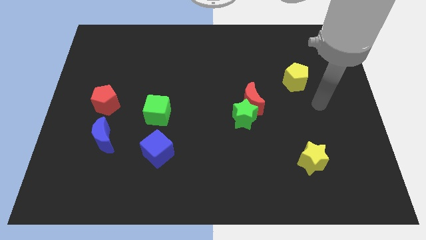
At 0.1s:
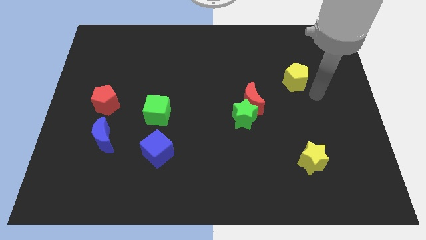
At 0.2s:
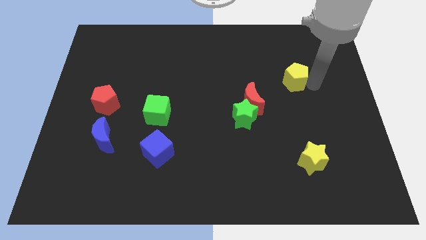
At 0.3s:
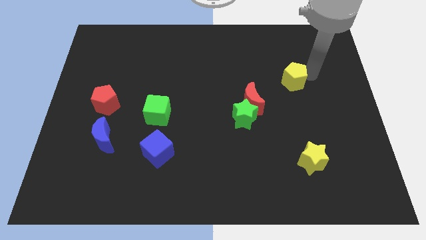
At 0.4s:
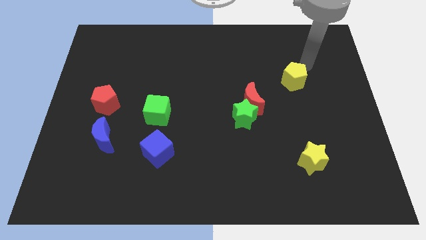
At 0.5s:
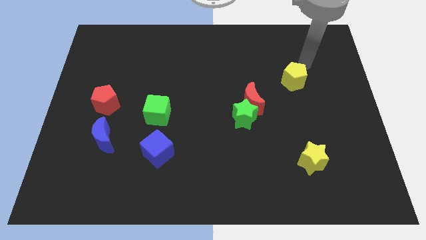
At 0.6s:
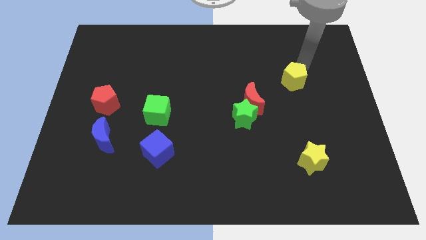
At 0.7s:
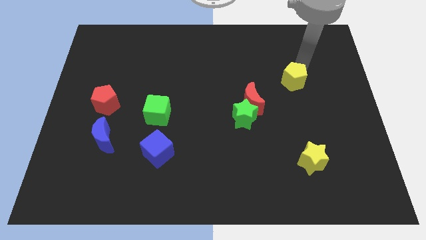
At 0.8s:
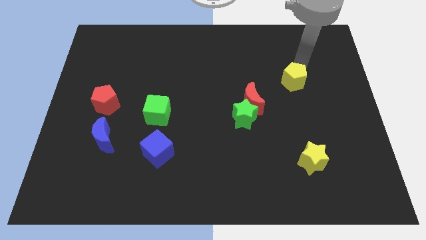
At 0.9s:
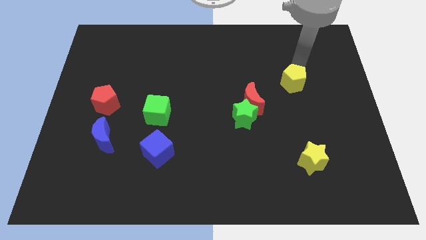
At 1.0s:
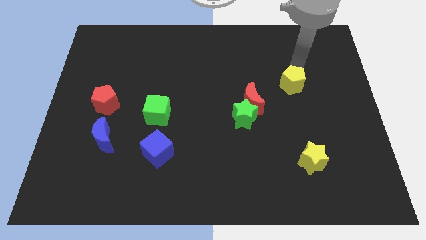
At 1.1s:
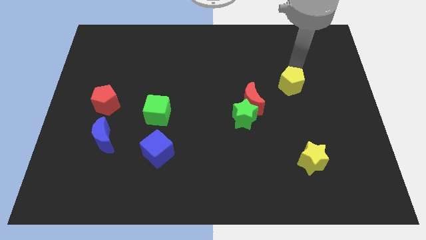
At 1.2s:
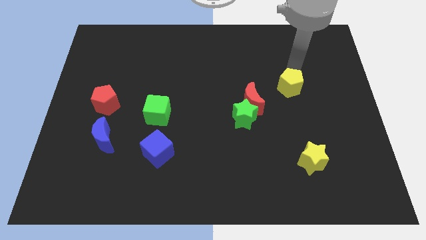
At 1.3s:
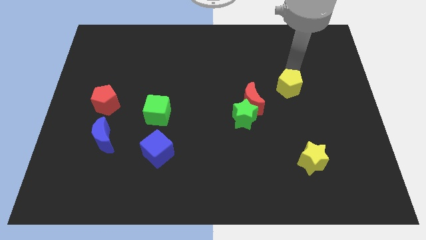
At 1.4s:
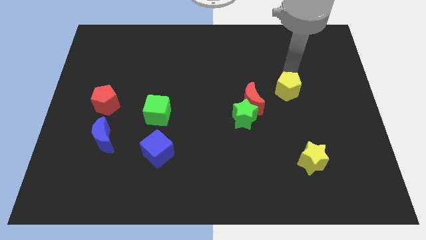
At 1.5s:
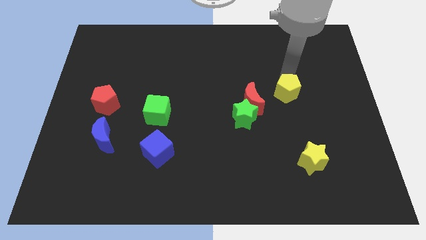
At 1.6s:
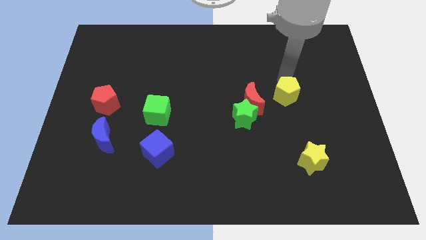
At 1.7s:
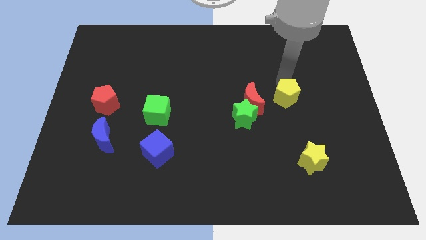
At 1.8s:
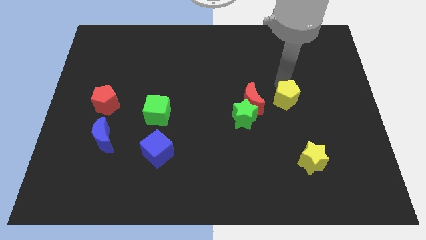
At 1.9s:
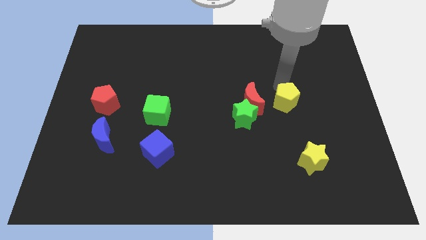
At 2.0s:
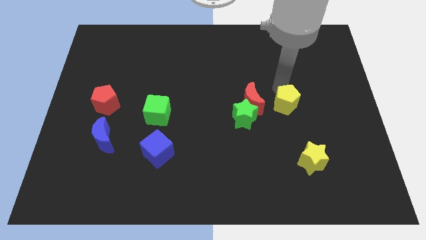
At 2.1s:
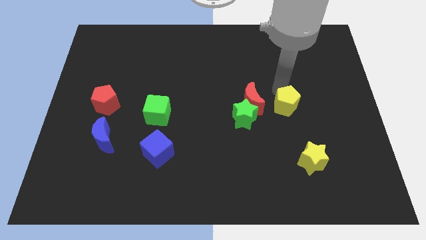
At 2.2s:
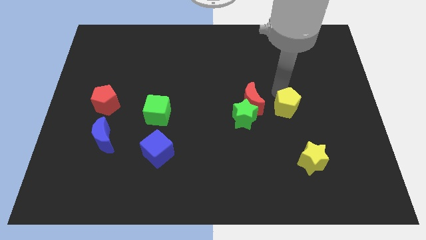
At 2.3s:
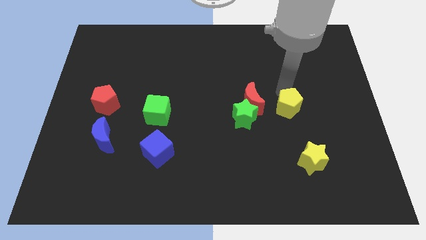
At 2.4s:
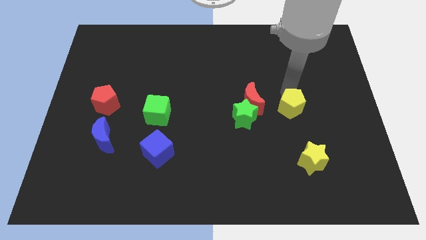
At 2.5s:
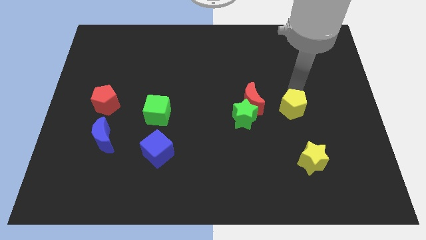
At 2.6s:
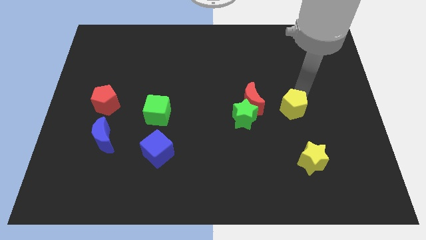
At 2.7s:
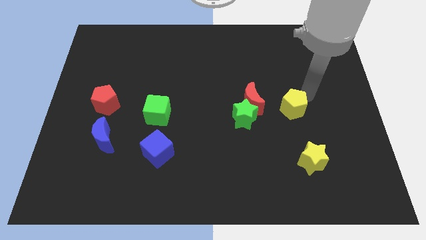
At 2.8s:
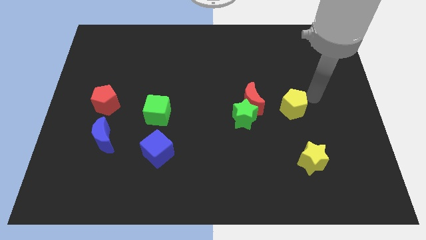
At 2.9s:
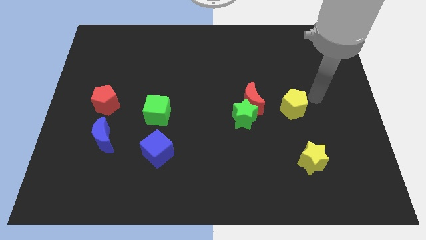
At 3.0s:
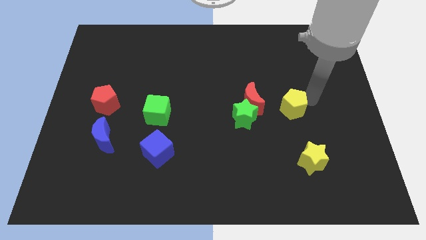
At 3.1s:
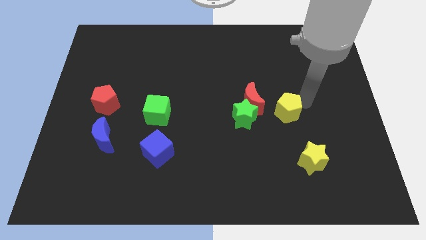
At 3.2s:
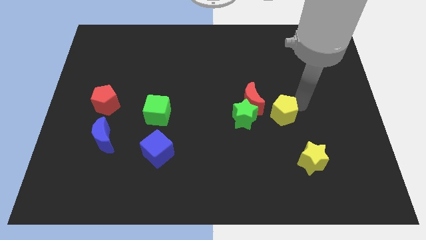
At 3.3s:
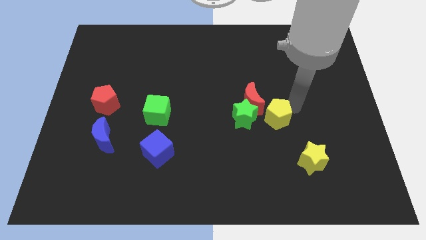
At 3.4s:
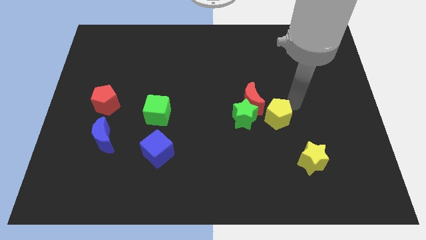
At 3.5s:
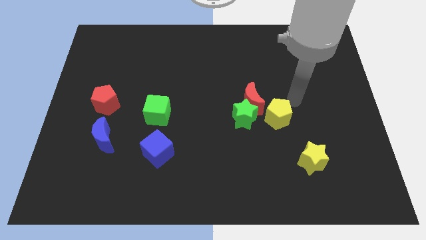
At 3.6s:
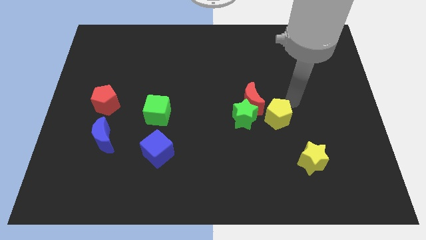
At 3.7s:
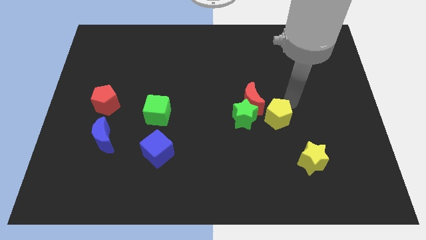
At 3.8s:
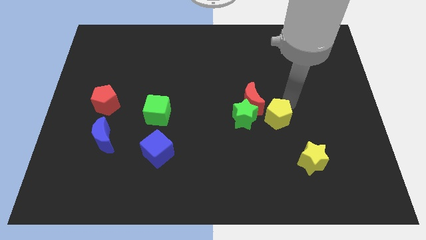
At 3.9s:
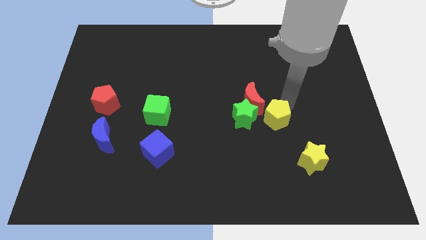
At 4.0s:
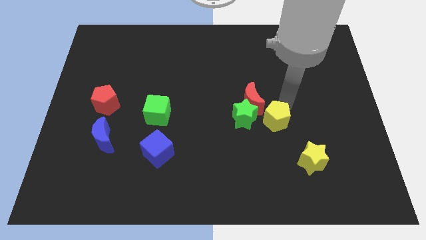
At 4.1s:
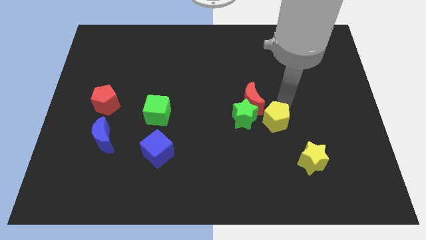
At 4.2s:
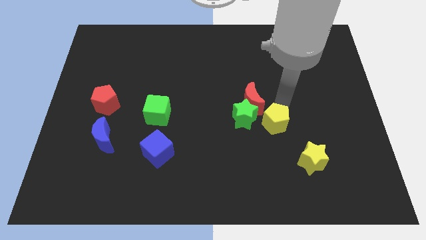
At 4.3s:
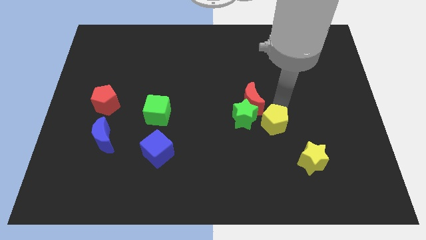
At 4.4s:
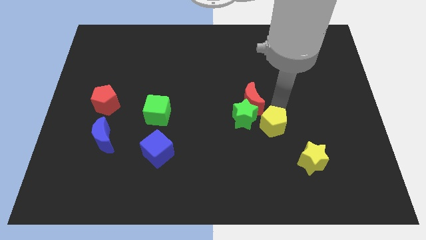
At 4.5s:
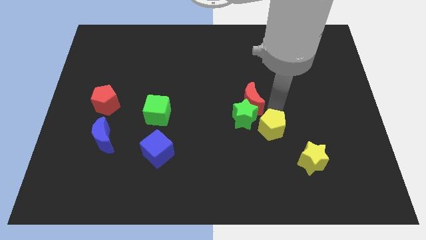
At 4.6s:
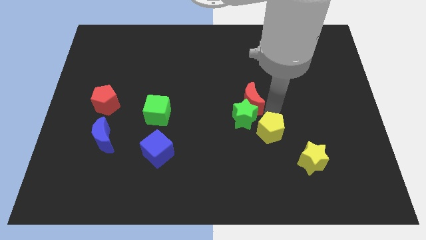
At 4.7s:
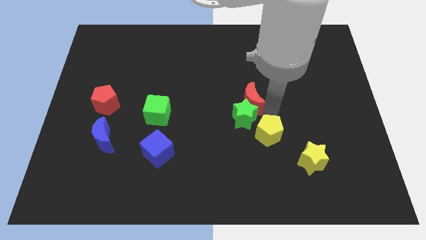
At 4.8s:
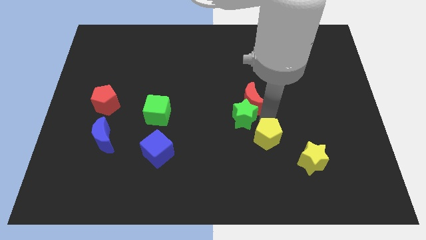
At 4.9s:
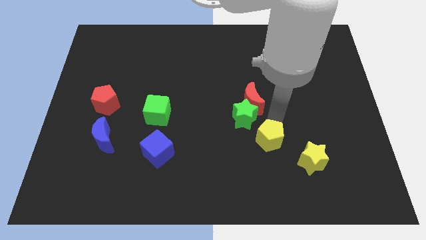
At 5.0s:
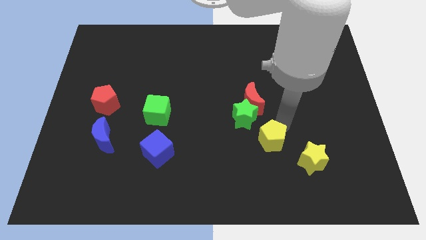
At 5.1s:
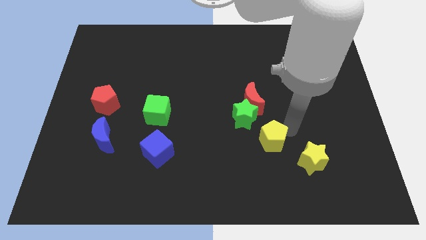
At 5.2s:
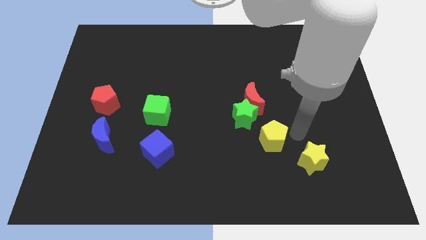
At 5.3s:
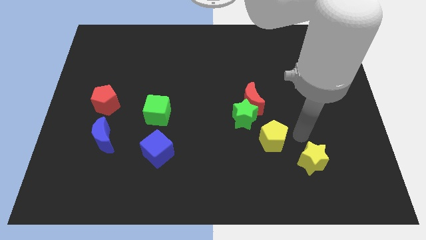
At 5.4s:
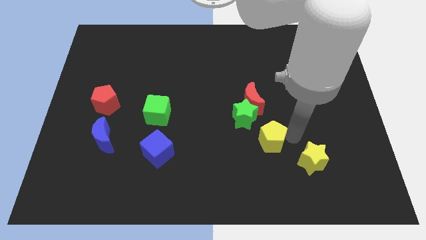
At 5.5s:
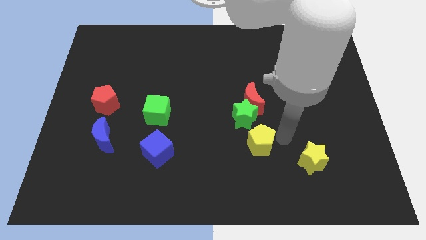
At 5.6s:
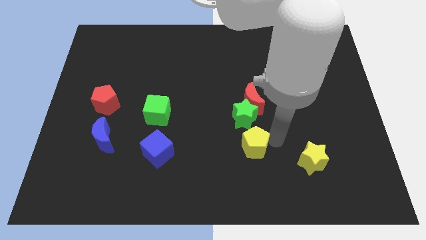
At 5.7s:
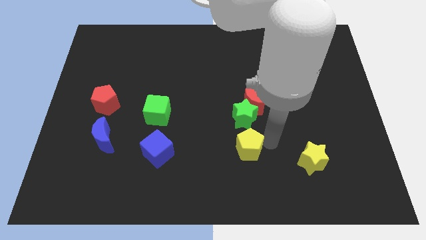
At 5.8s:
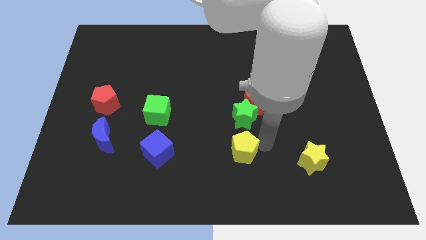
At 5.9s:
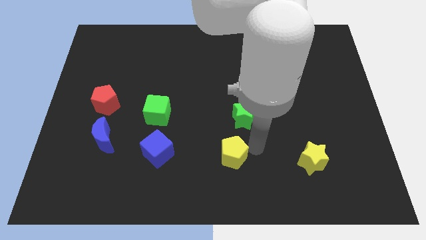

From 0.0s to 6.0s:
put the yellow pentagon to the right of the blue cube
